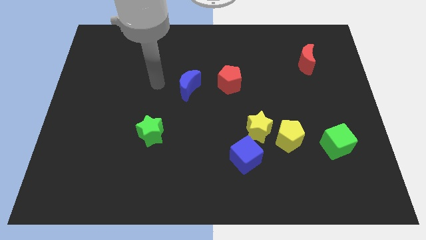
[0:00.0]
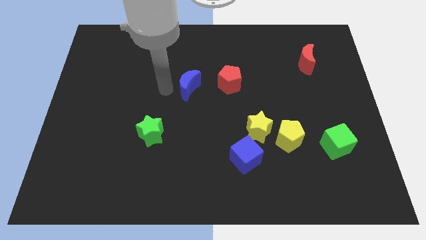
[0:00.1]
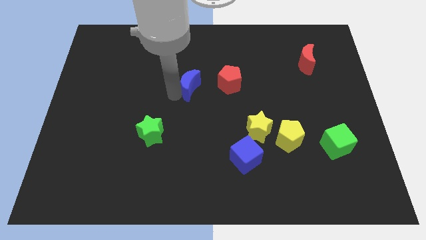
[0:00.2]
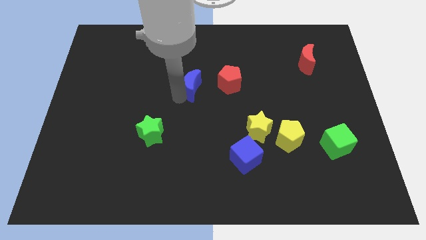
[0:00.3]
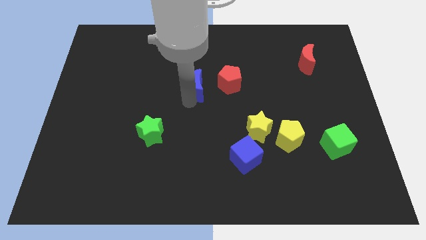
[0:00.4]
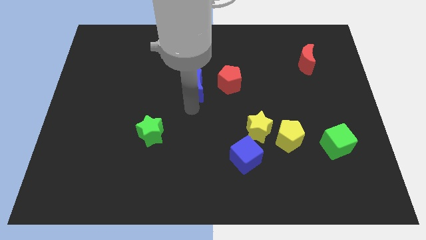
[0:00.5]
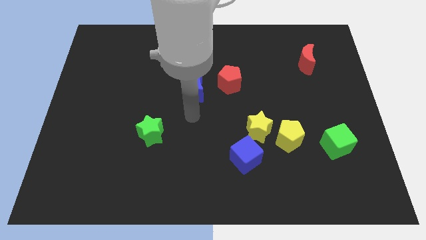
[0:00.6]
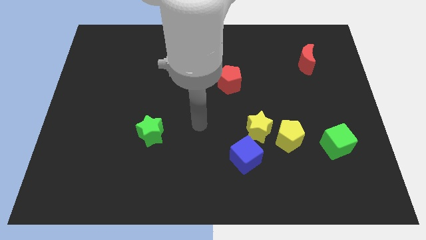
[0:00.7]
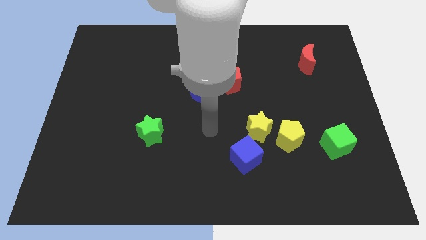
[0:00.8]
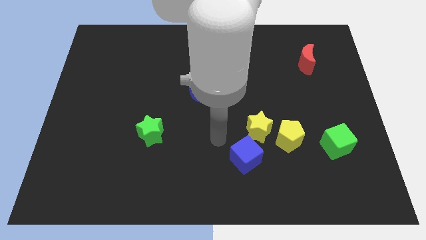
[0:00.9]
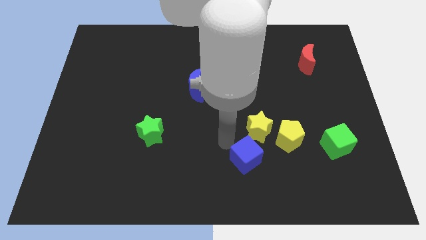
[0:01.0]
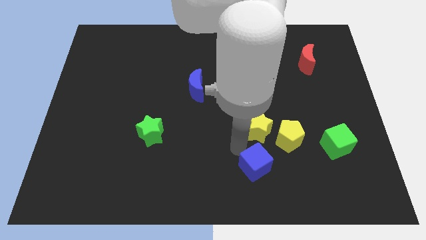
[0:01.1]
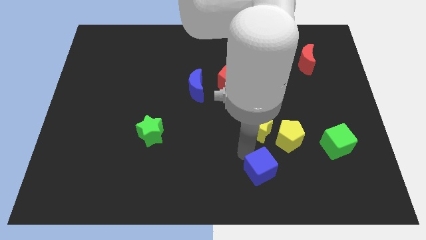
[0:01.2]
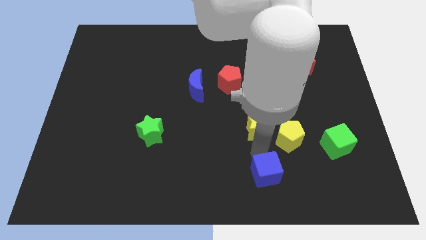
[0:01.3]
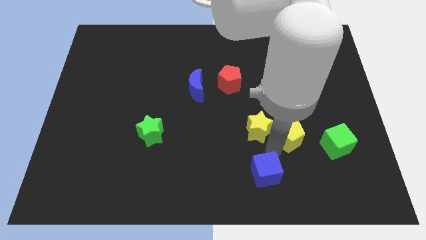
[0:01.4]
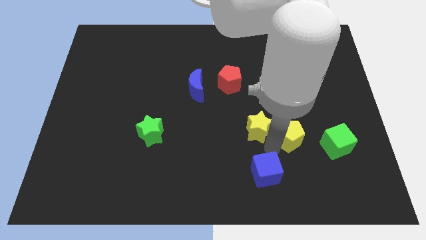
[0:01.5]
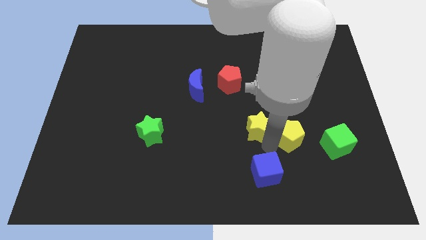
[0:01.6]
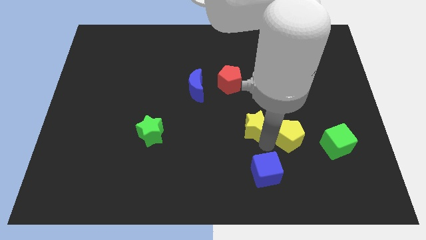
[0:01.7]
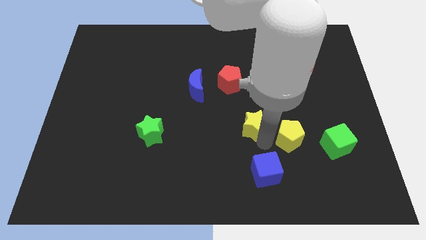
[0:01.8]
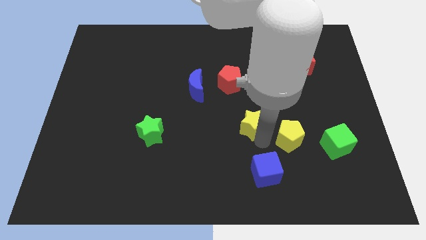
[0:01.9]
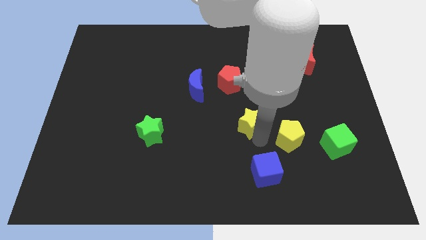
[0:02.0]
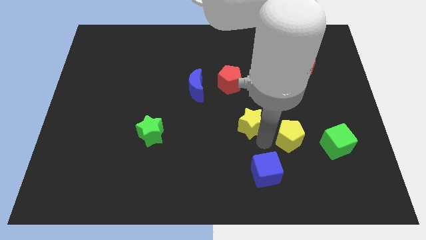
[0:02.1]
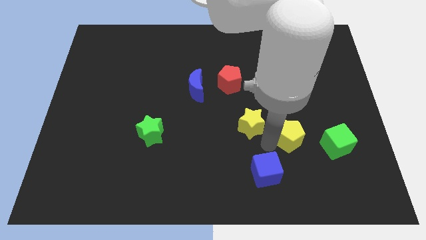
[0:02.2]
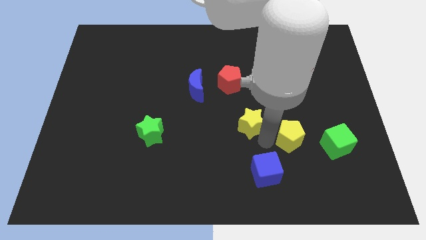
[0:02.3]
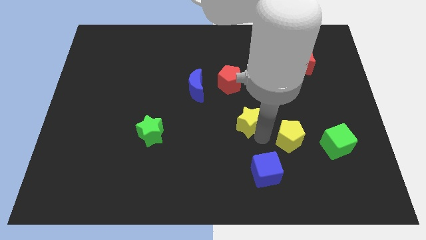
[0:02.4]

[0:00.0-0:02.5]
separate the yellow star from the yellow pentagon and blue cube

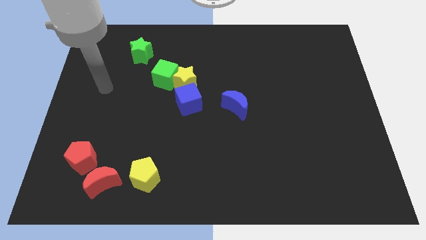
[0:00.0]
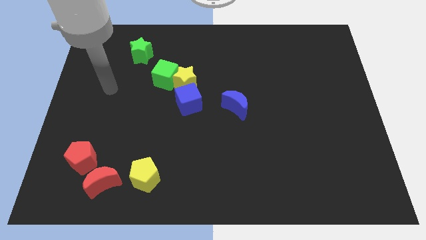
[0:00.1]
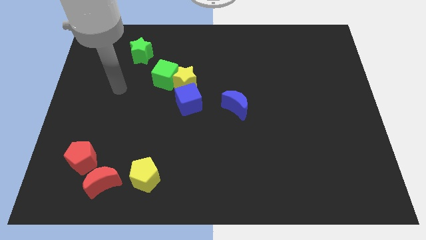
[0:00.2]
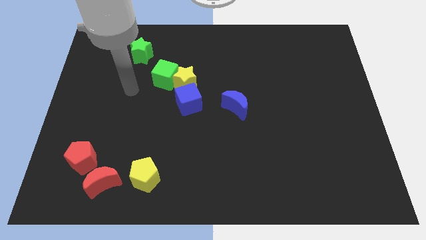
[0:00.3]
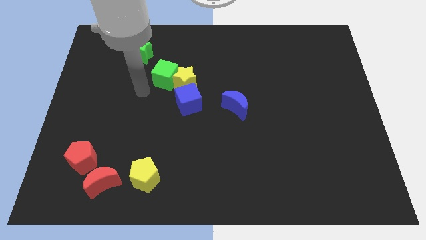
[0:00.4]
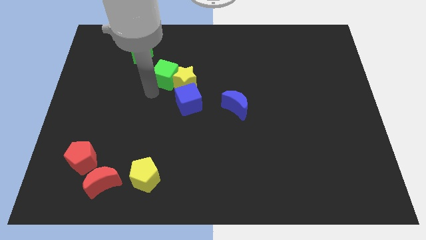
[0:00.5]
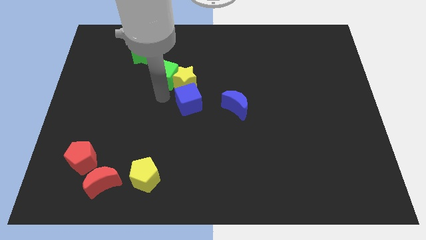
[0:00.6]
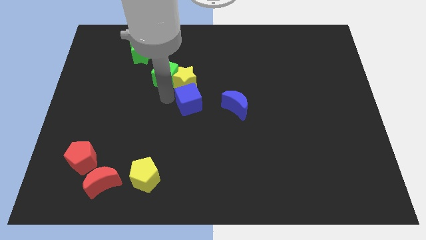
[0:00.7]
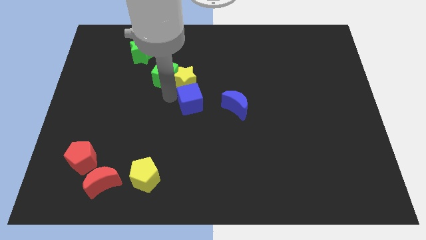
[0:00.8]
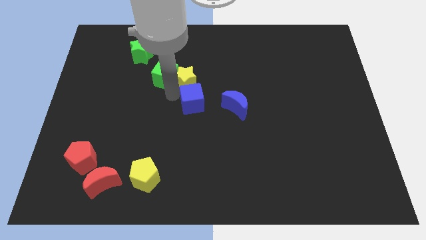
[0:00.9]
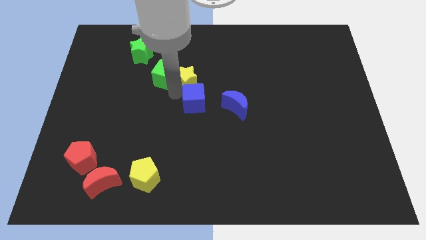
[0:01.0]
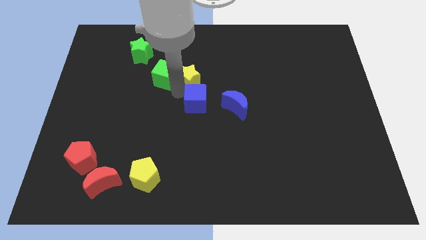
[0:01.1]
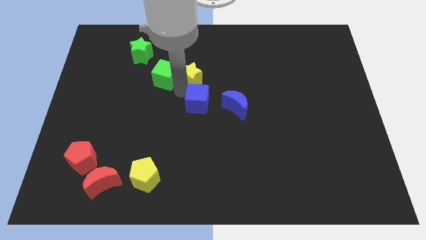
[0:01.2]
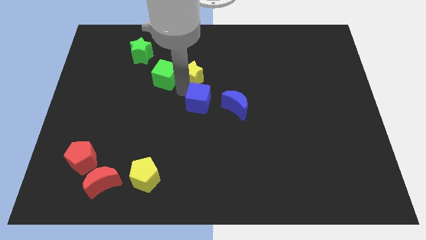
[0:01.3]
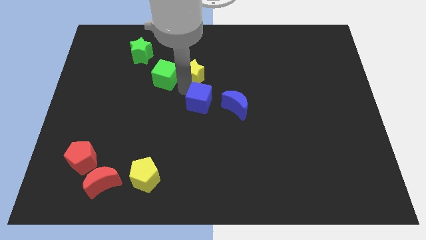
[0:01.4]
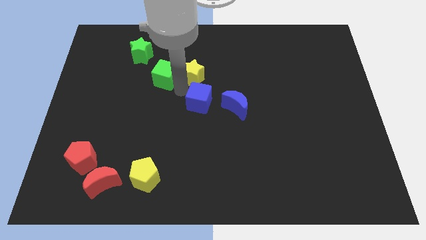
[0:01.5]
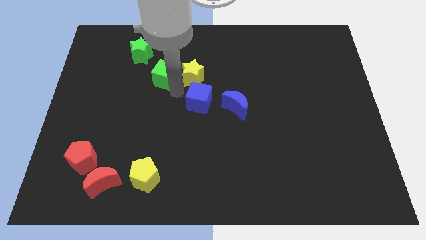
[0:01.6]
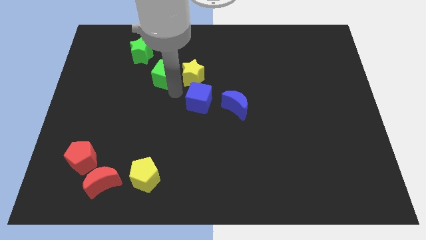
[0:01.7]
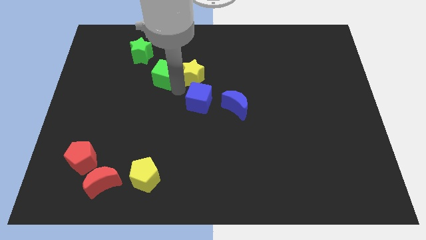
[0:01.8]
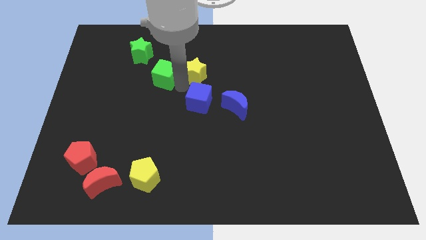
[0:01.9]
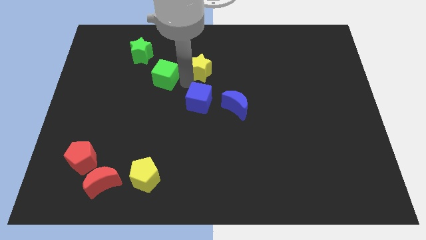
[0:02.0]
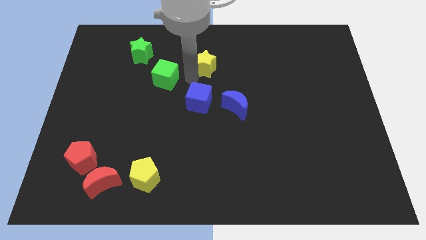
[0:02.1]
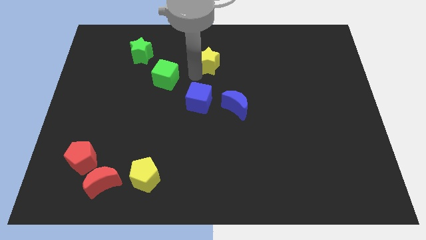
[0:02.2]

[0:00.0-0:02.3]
pull the yellow star apart from the green cube and blue cube

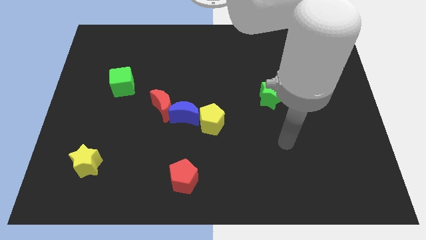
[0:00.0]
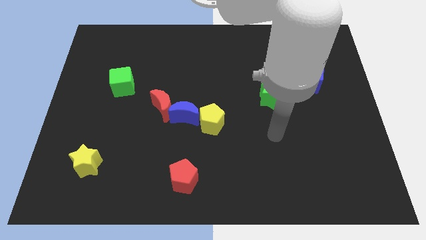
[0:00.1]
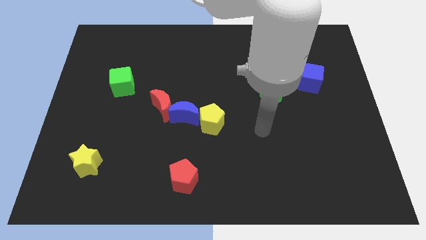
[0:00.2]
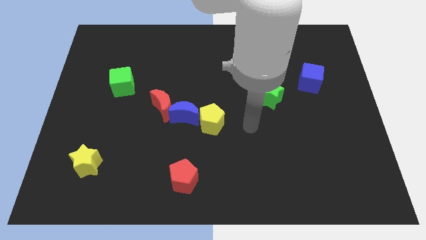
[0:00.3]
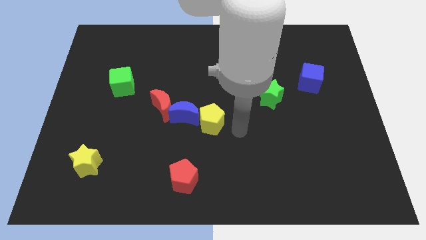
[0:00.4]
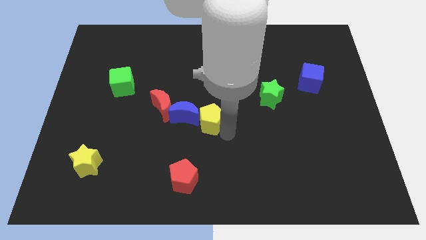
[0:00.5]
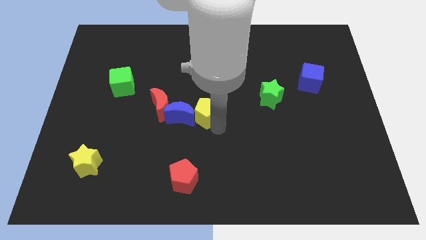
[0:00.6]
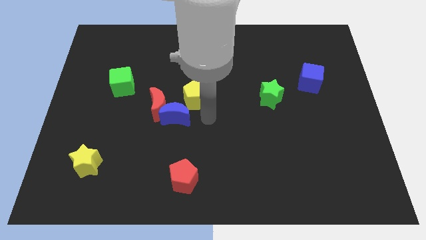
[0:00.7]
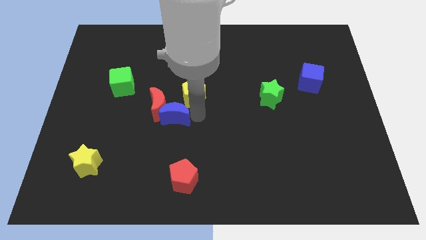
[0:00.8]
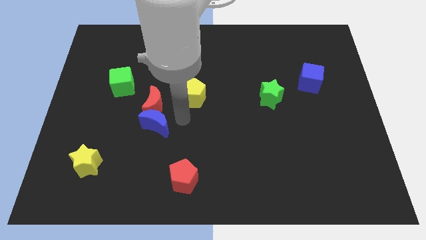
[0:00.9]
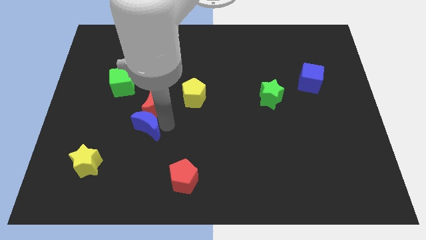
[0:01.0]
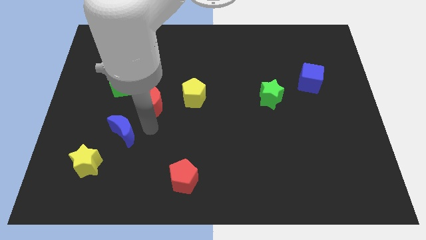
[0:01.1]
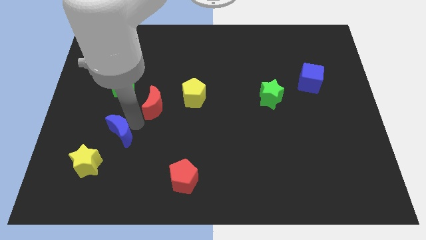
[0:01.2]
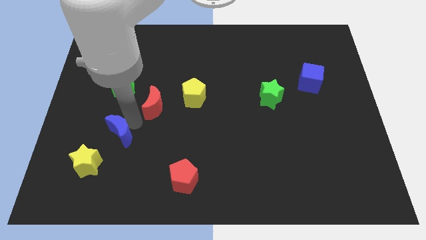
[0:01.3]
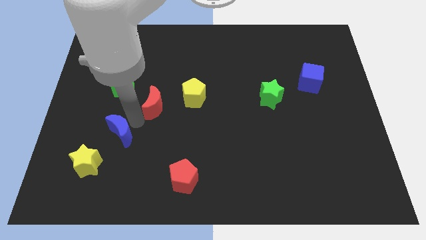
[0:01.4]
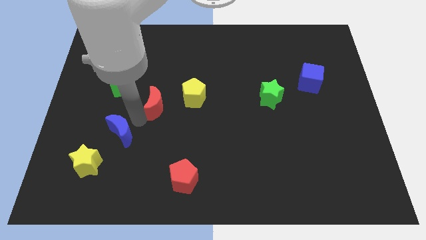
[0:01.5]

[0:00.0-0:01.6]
move the red moon away from the blue moon

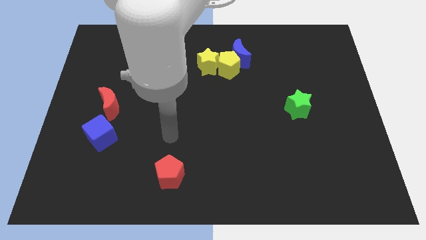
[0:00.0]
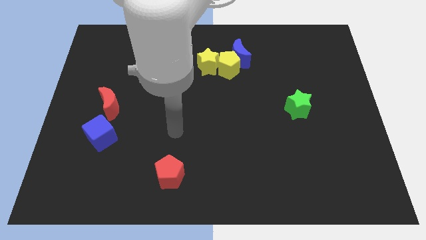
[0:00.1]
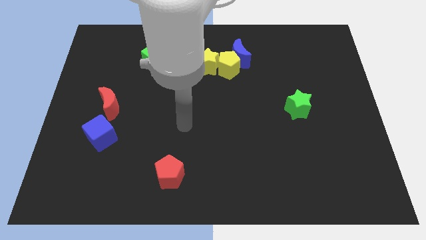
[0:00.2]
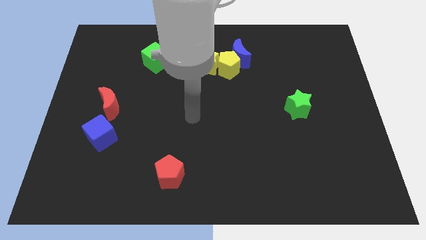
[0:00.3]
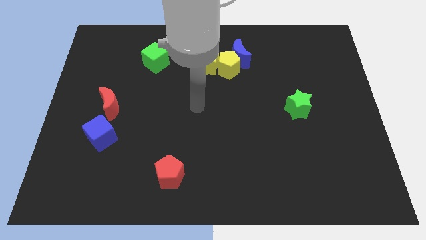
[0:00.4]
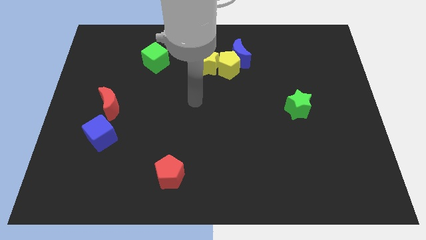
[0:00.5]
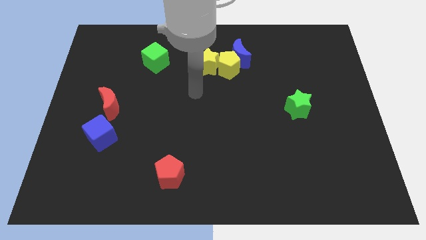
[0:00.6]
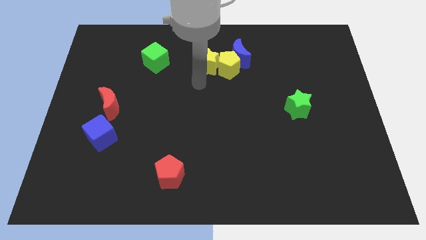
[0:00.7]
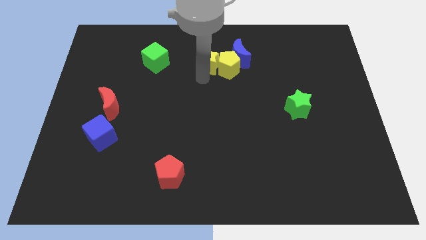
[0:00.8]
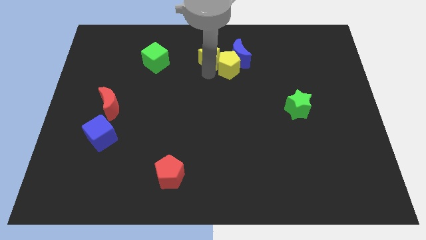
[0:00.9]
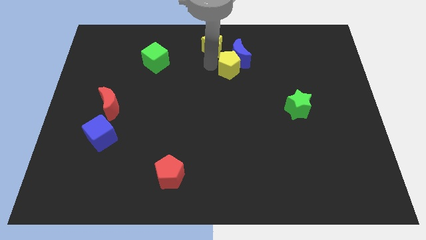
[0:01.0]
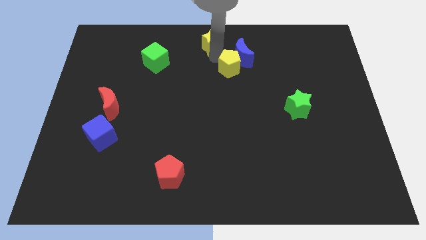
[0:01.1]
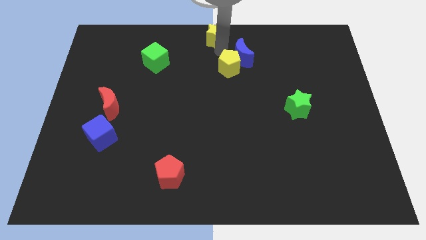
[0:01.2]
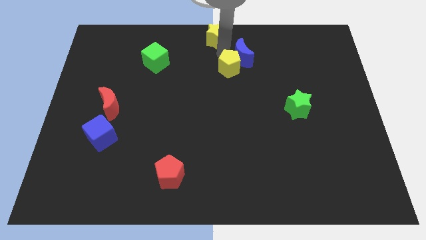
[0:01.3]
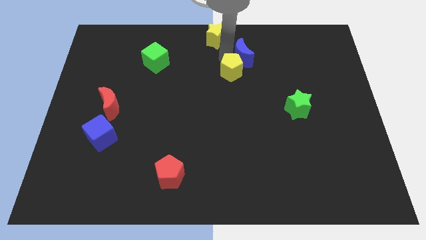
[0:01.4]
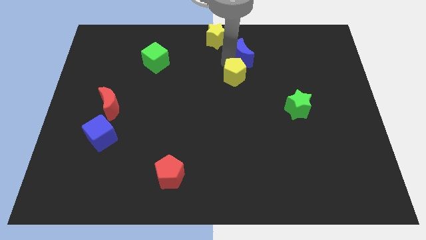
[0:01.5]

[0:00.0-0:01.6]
move the yellow pentagon away from the blue moon and yellow star

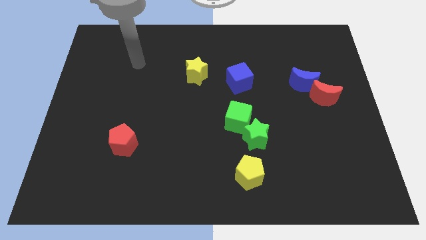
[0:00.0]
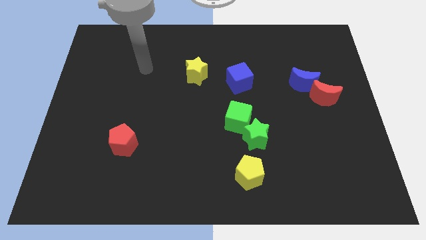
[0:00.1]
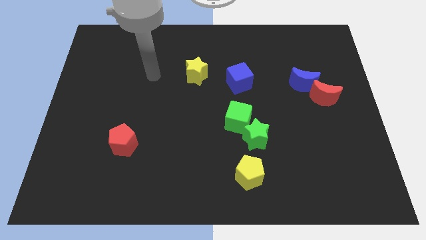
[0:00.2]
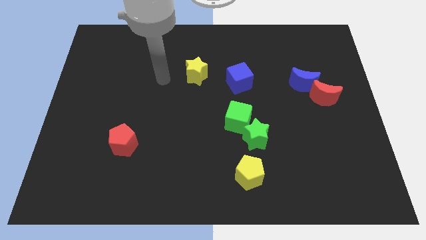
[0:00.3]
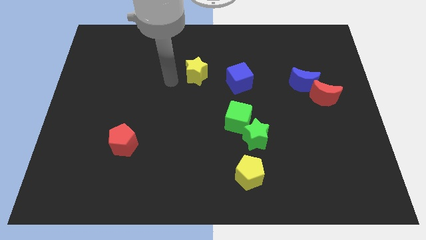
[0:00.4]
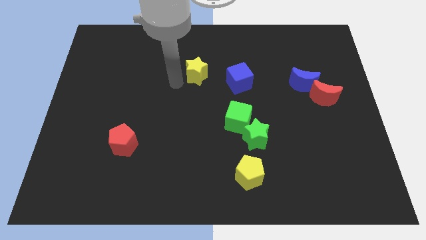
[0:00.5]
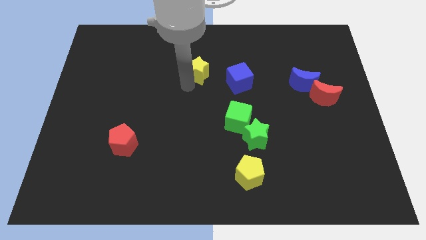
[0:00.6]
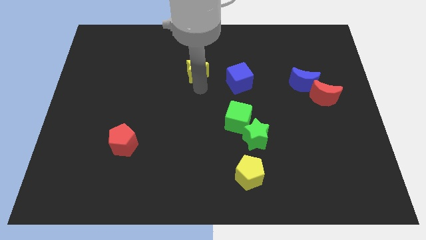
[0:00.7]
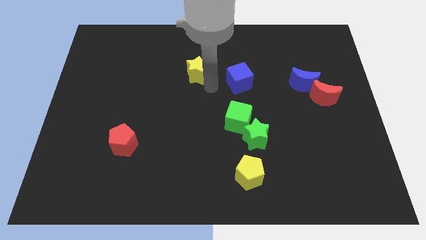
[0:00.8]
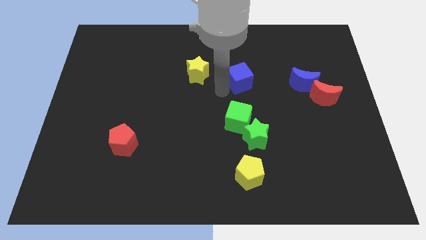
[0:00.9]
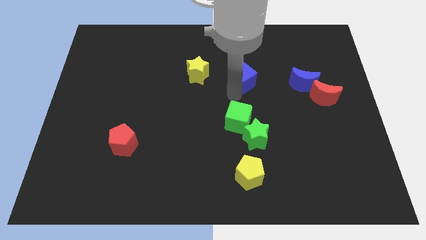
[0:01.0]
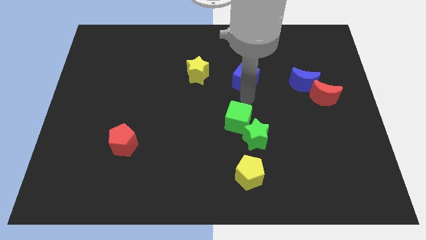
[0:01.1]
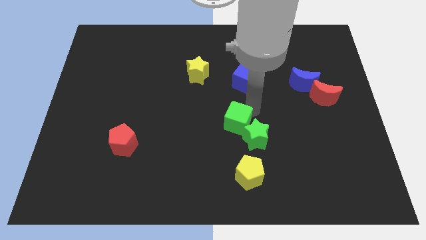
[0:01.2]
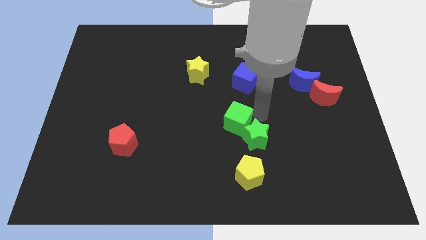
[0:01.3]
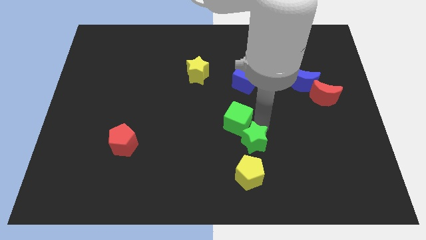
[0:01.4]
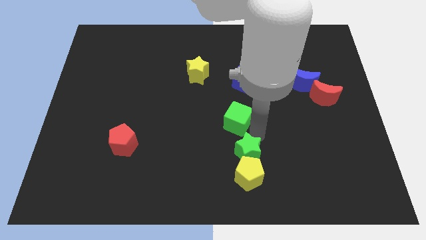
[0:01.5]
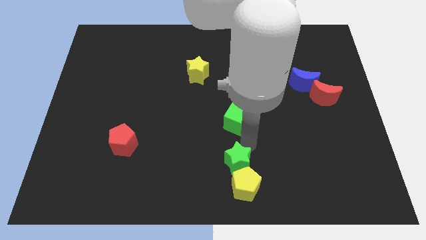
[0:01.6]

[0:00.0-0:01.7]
pull the green cube apart from the green star
